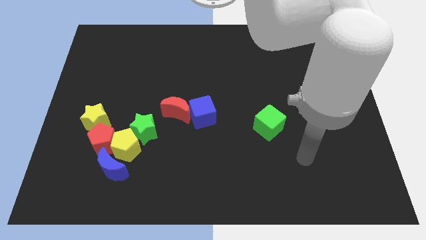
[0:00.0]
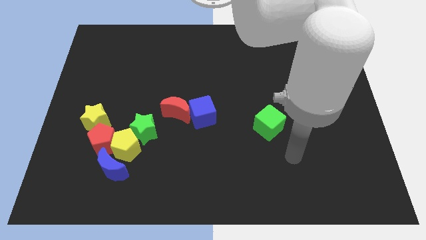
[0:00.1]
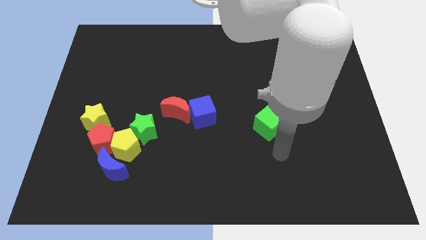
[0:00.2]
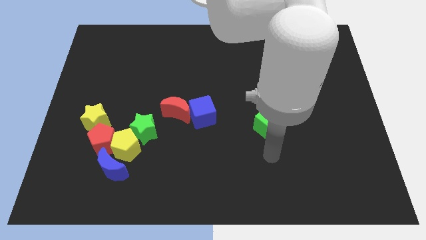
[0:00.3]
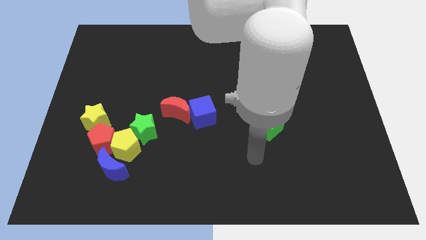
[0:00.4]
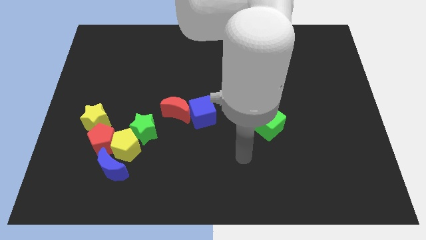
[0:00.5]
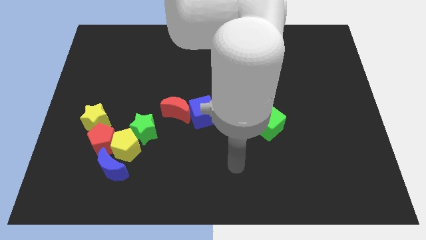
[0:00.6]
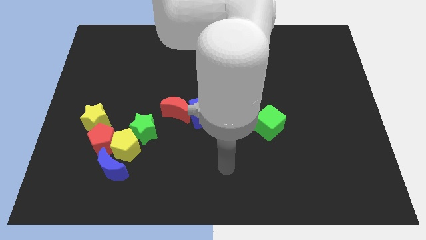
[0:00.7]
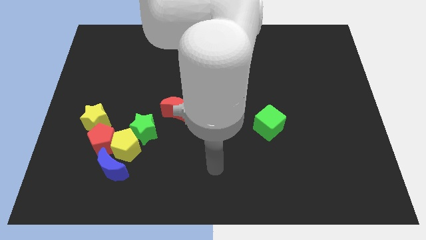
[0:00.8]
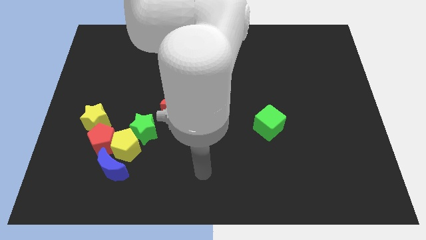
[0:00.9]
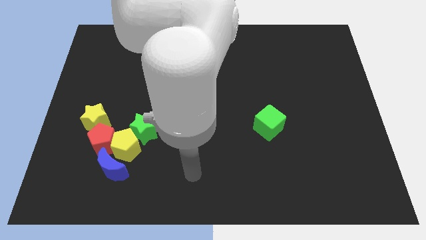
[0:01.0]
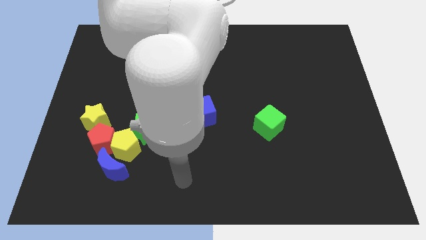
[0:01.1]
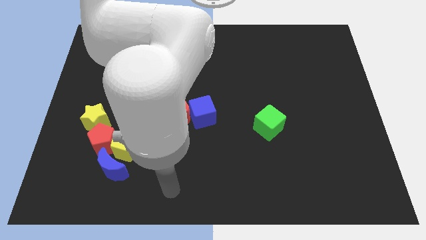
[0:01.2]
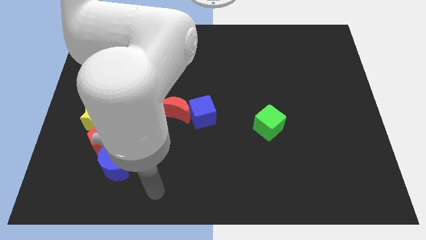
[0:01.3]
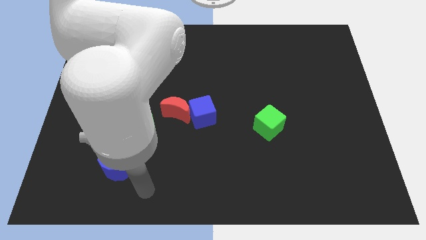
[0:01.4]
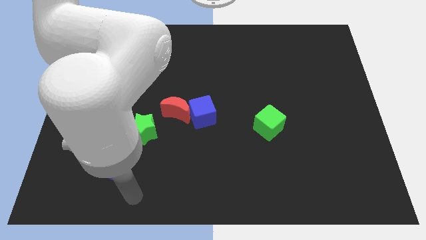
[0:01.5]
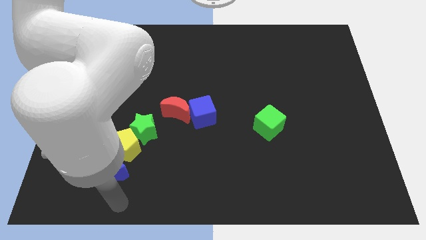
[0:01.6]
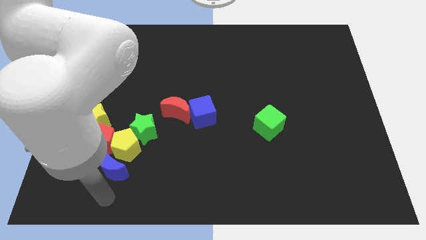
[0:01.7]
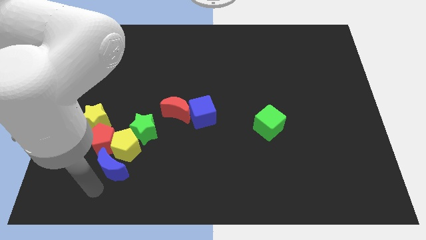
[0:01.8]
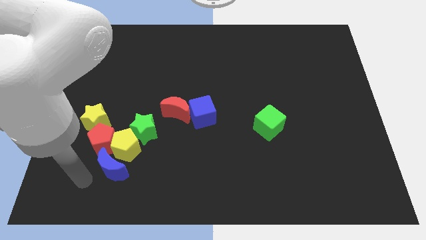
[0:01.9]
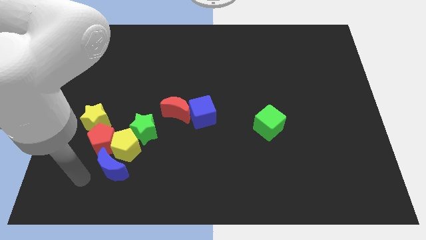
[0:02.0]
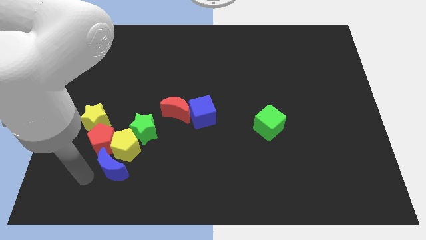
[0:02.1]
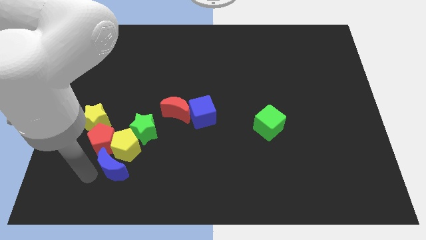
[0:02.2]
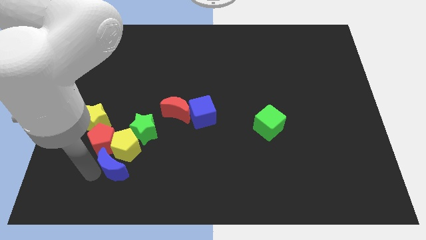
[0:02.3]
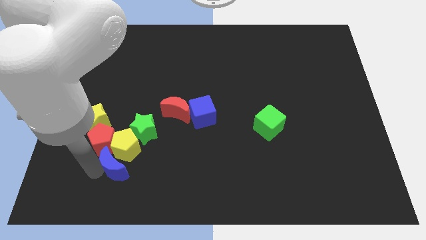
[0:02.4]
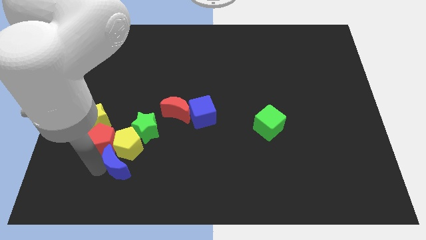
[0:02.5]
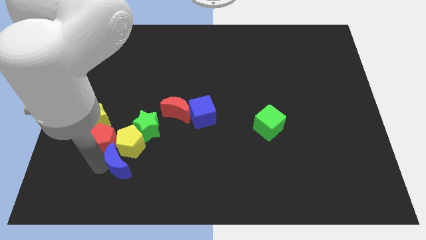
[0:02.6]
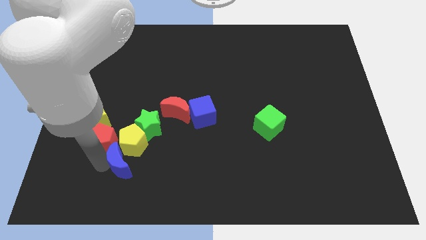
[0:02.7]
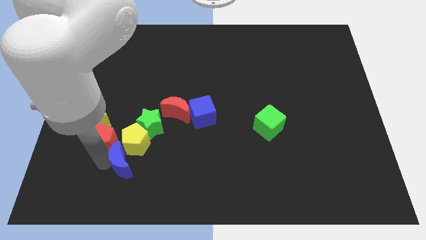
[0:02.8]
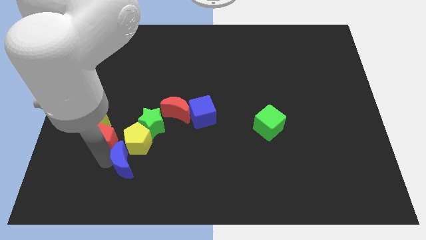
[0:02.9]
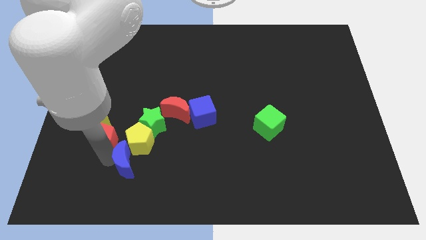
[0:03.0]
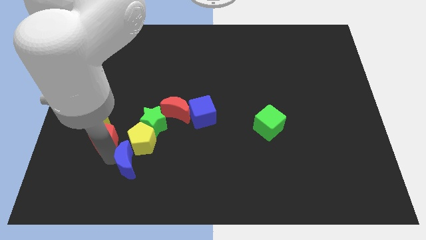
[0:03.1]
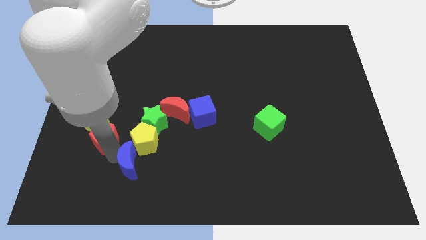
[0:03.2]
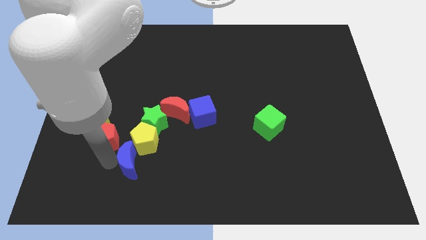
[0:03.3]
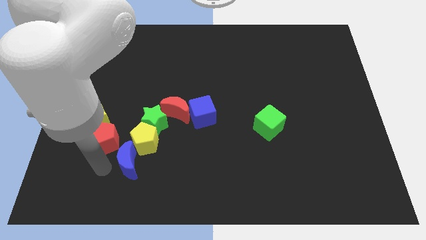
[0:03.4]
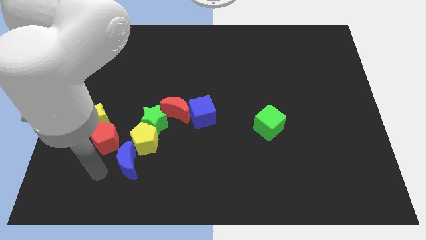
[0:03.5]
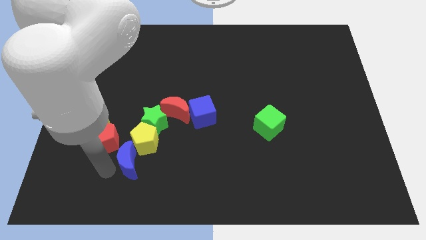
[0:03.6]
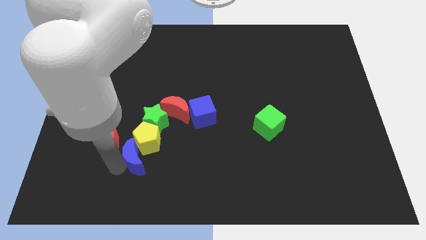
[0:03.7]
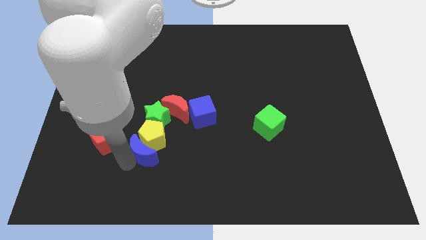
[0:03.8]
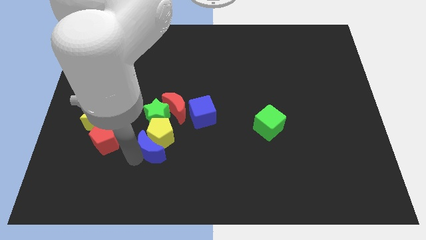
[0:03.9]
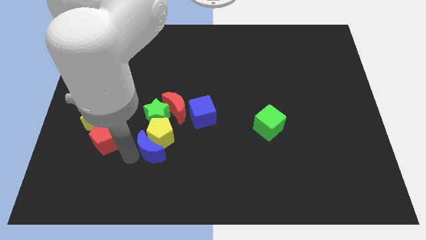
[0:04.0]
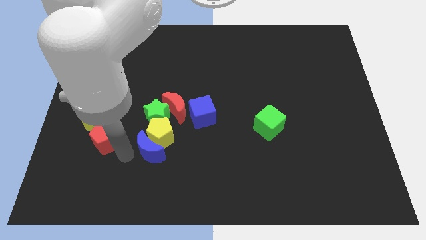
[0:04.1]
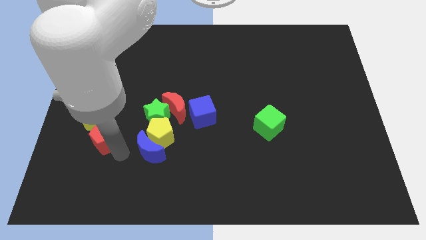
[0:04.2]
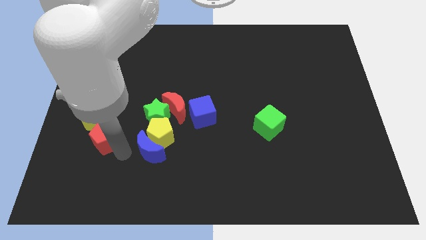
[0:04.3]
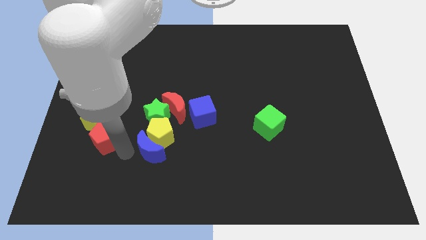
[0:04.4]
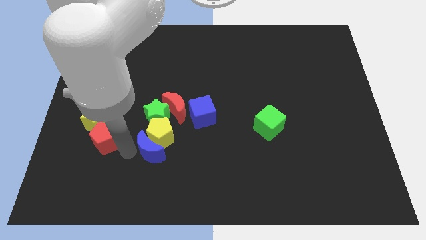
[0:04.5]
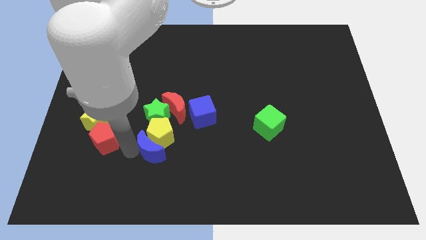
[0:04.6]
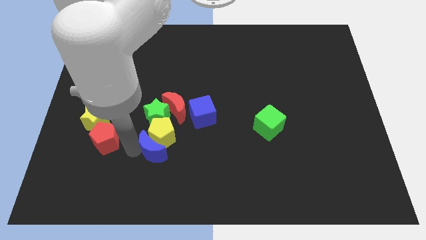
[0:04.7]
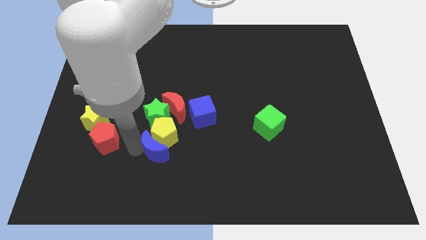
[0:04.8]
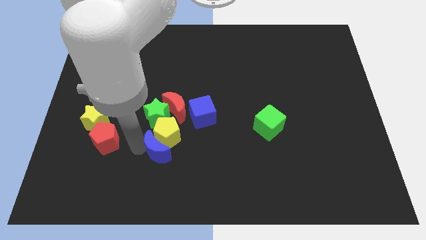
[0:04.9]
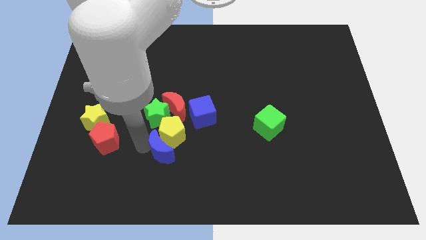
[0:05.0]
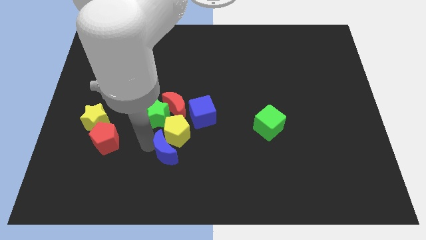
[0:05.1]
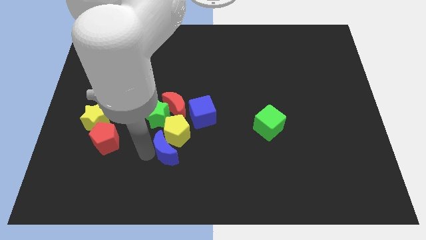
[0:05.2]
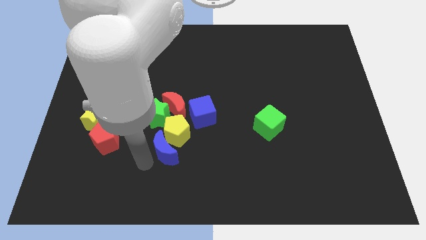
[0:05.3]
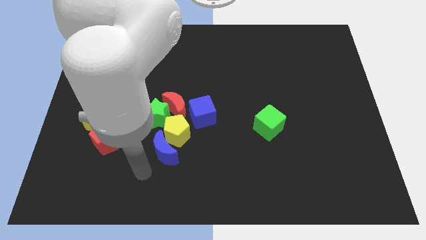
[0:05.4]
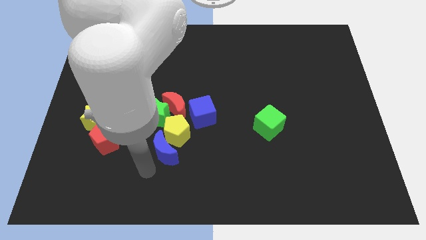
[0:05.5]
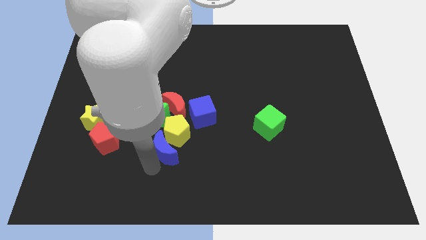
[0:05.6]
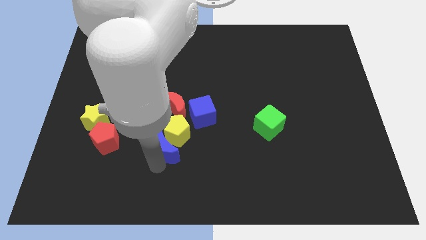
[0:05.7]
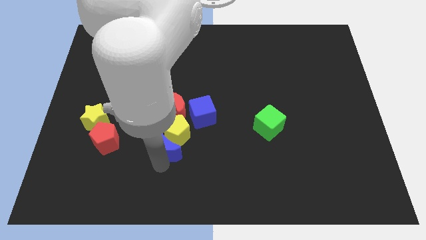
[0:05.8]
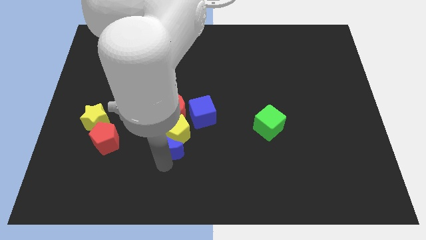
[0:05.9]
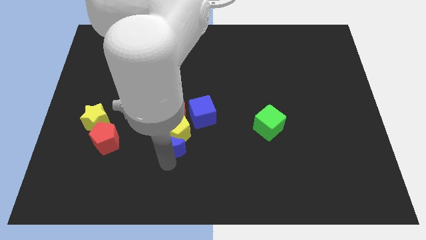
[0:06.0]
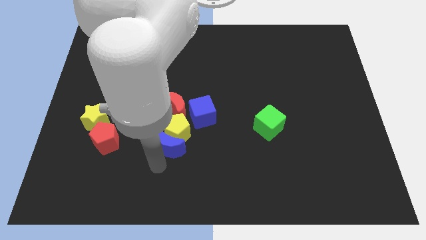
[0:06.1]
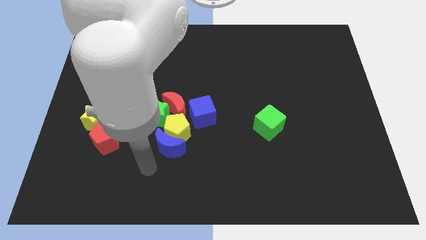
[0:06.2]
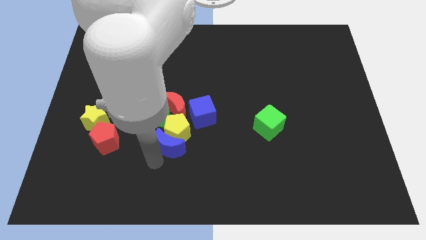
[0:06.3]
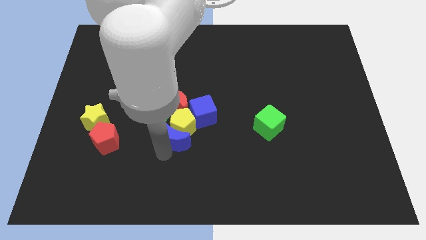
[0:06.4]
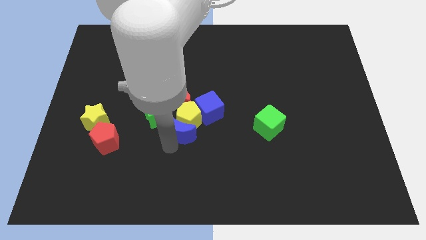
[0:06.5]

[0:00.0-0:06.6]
push the blue moon right of the green star

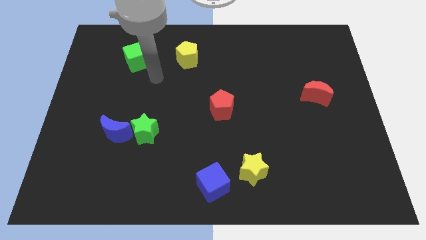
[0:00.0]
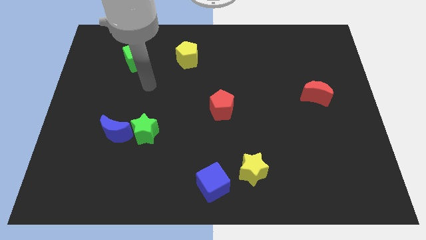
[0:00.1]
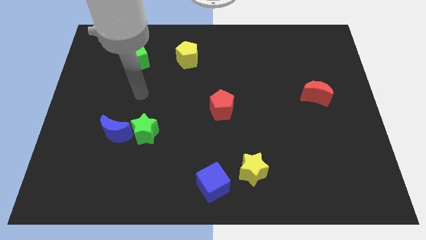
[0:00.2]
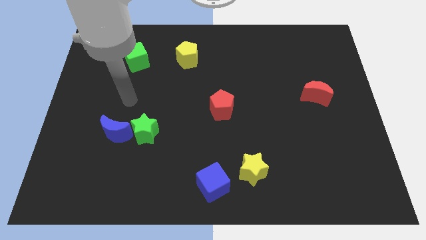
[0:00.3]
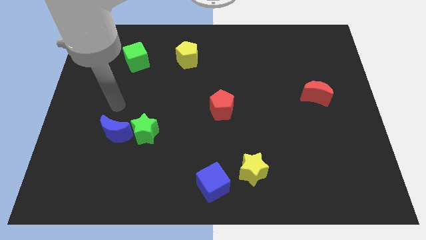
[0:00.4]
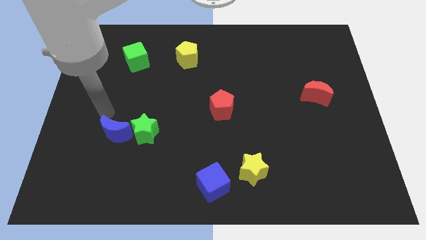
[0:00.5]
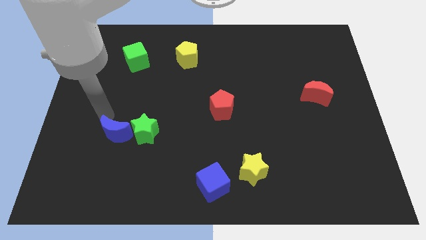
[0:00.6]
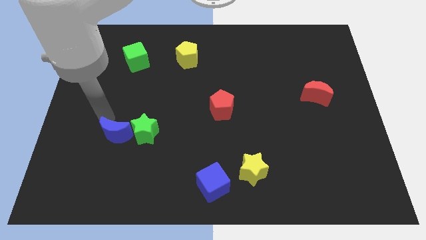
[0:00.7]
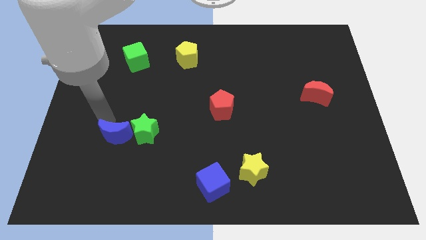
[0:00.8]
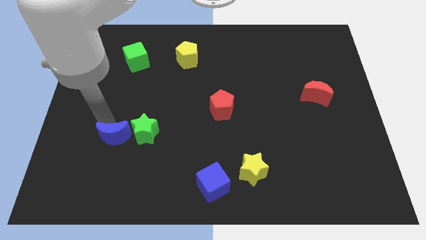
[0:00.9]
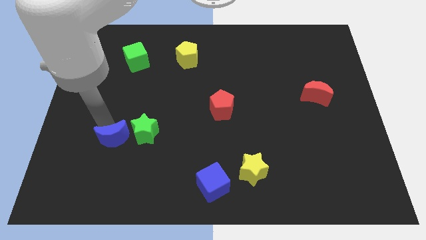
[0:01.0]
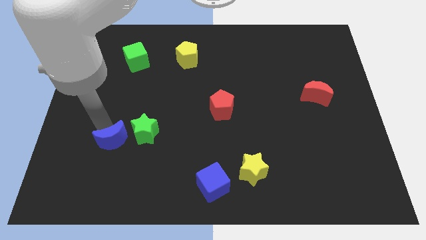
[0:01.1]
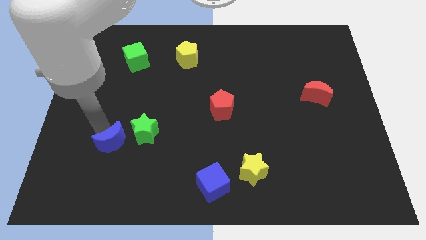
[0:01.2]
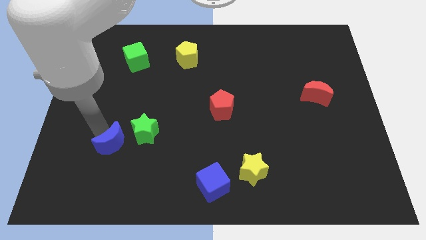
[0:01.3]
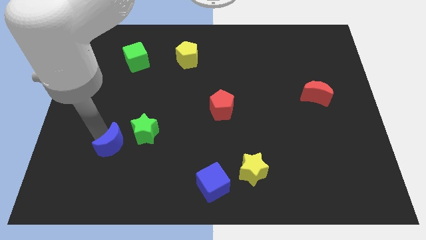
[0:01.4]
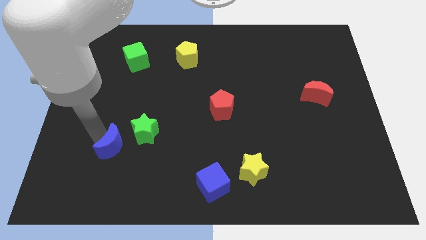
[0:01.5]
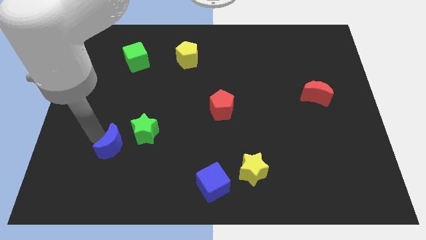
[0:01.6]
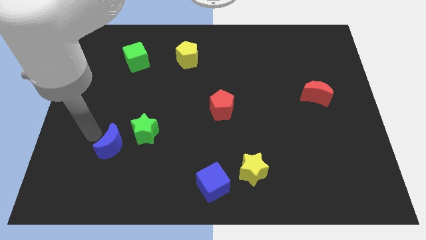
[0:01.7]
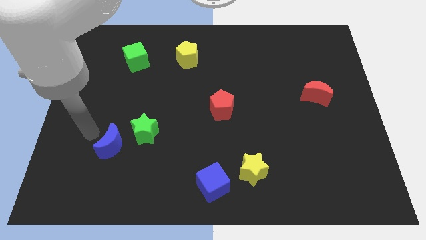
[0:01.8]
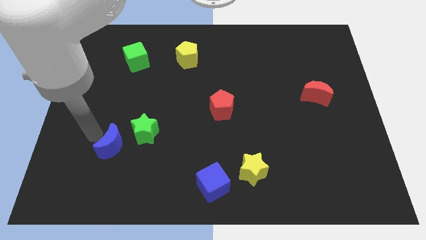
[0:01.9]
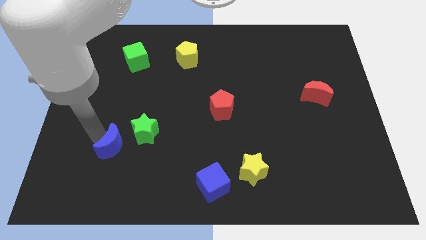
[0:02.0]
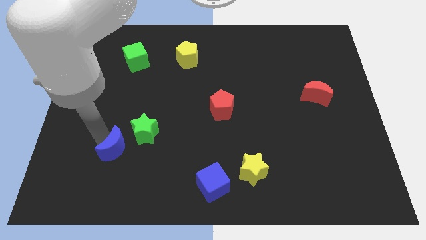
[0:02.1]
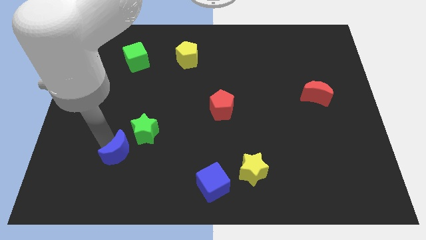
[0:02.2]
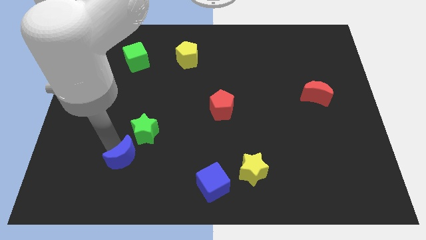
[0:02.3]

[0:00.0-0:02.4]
slide the blue moon below the green star
